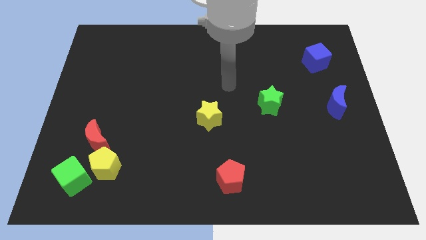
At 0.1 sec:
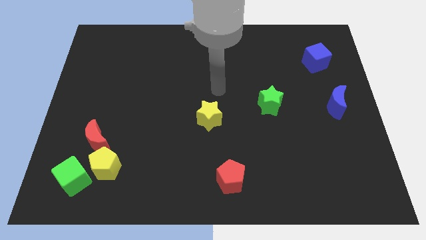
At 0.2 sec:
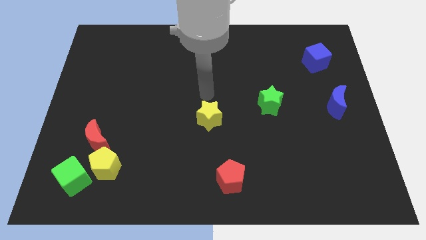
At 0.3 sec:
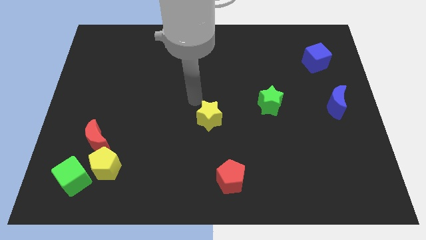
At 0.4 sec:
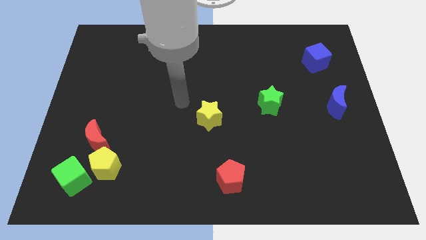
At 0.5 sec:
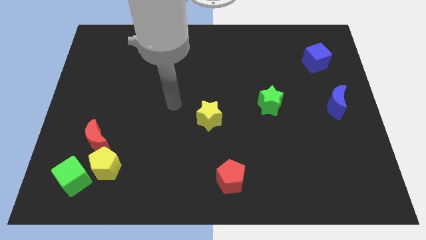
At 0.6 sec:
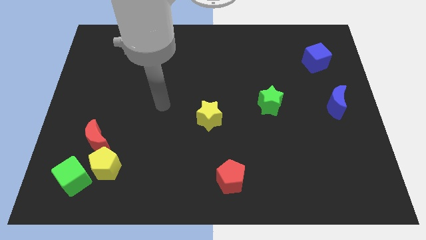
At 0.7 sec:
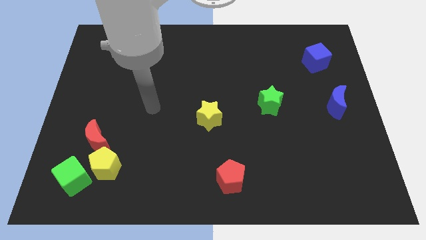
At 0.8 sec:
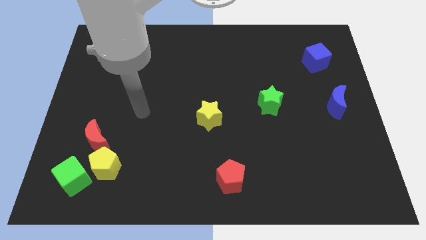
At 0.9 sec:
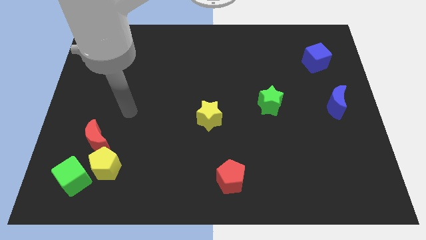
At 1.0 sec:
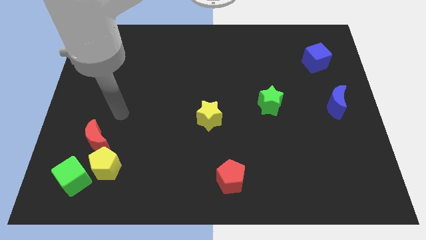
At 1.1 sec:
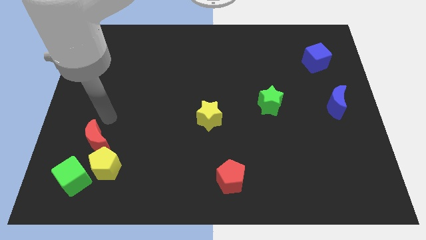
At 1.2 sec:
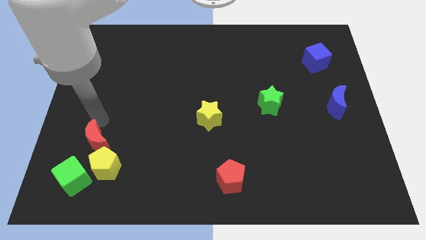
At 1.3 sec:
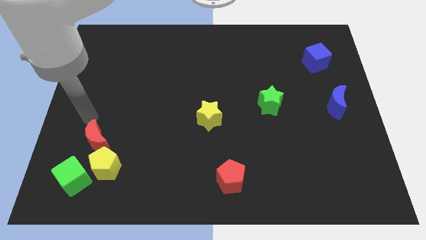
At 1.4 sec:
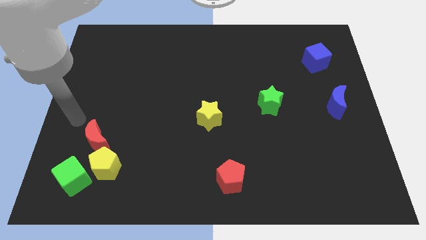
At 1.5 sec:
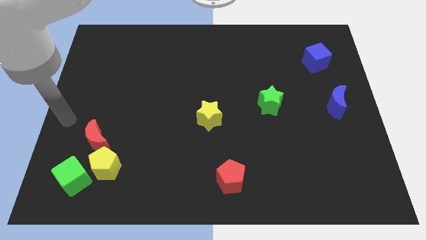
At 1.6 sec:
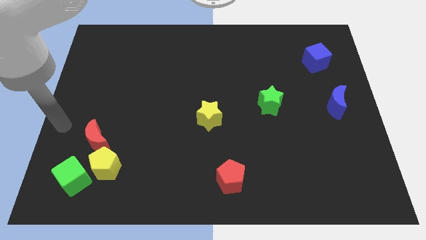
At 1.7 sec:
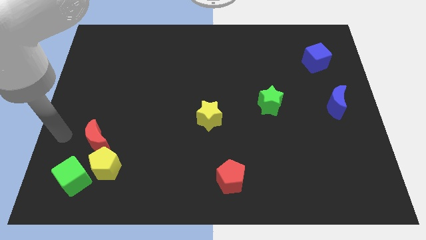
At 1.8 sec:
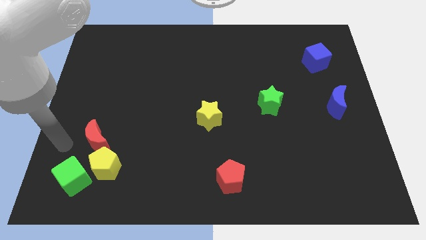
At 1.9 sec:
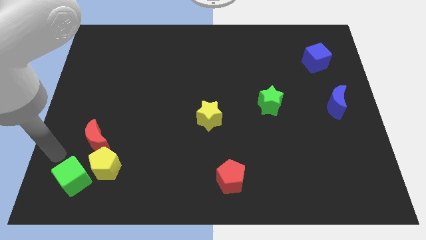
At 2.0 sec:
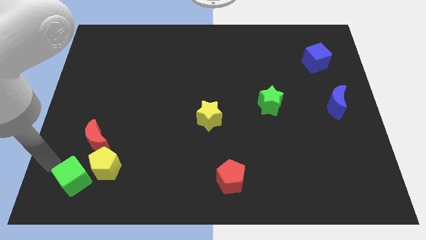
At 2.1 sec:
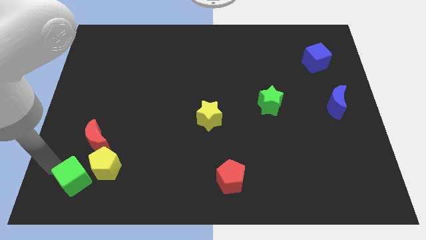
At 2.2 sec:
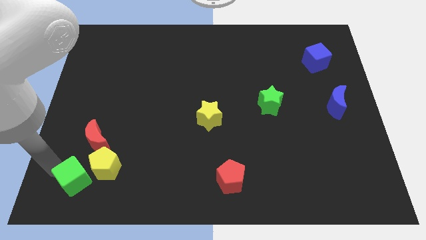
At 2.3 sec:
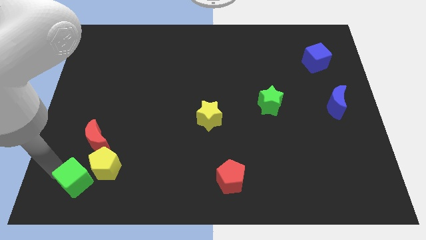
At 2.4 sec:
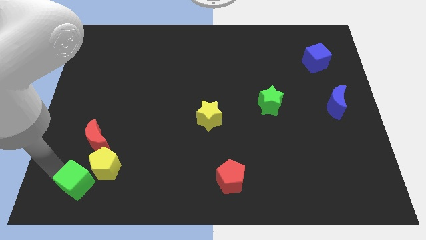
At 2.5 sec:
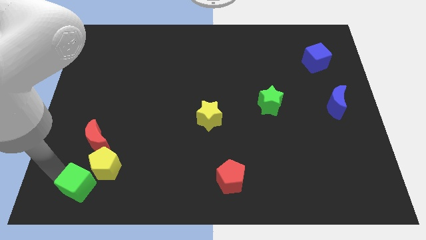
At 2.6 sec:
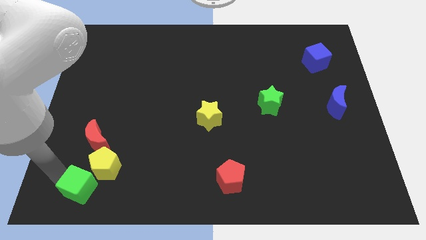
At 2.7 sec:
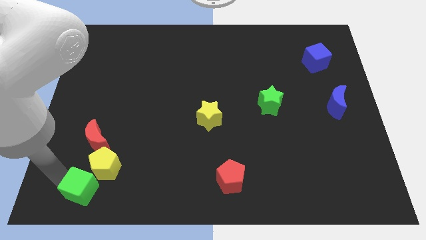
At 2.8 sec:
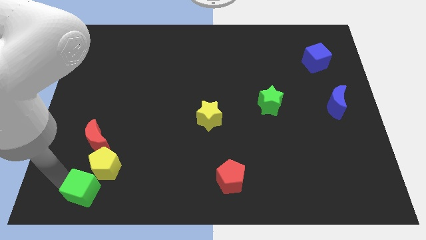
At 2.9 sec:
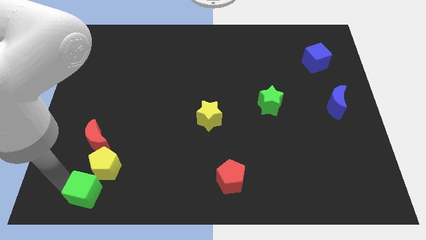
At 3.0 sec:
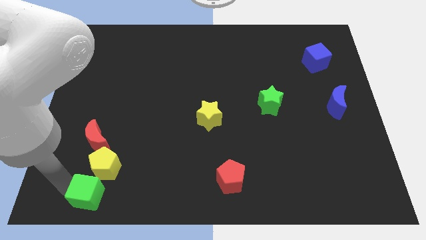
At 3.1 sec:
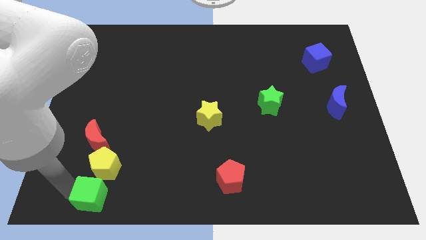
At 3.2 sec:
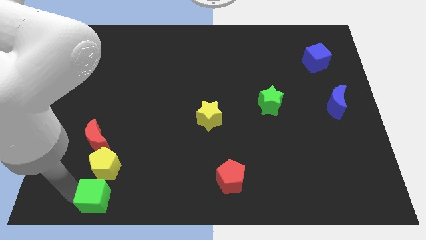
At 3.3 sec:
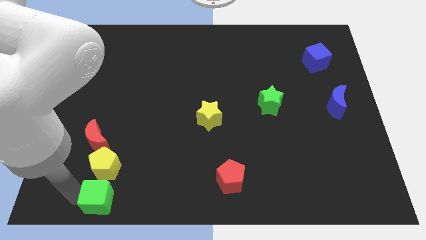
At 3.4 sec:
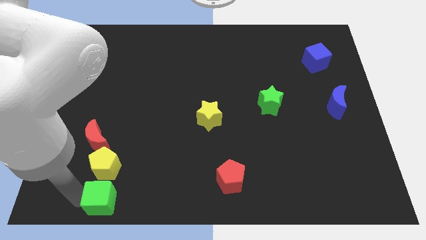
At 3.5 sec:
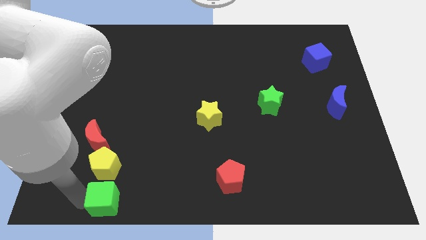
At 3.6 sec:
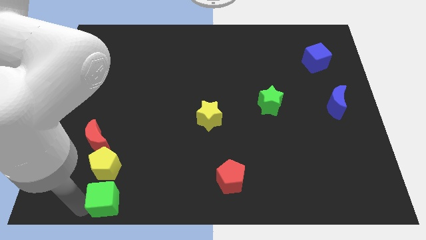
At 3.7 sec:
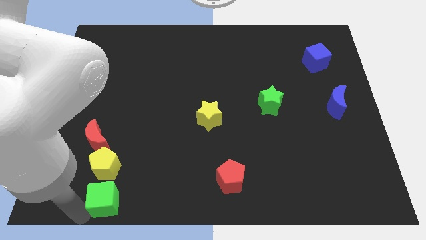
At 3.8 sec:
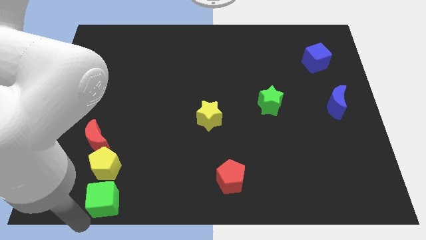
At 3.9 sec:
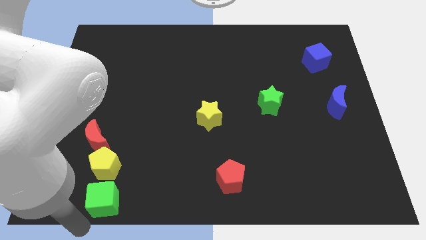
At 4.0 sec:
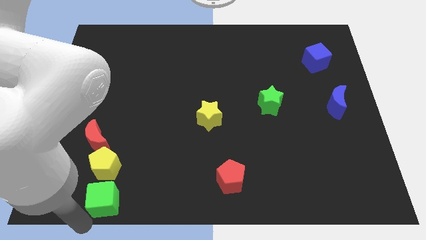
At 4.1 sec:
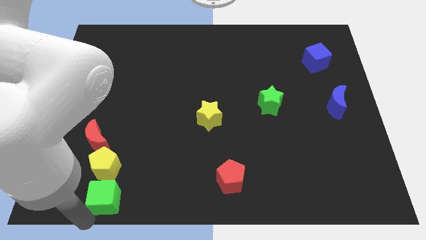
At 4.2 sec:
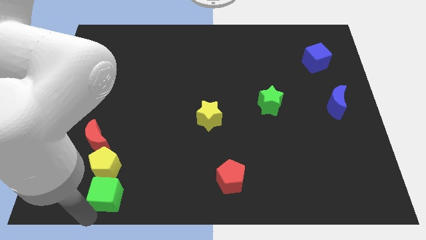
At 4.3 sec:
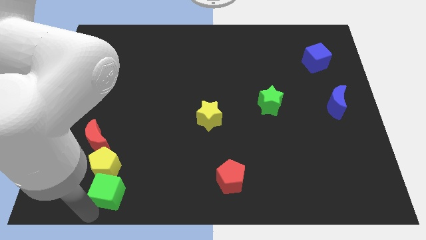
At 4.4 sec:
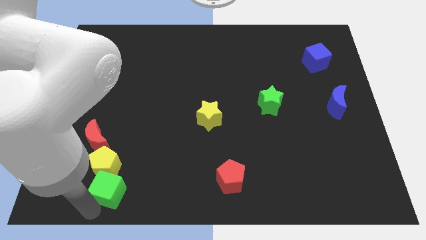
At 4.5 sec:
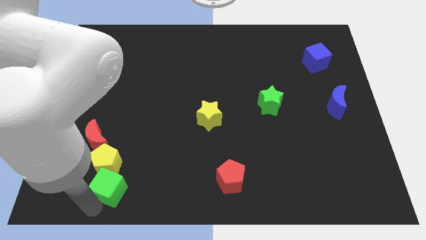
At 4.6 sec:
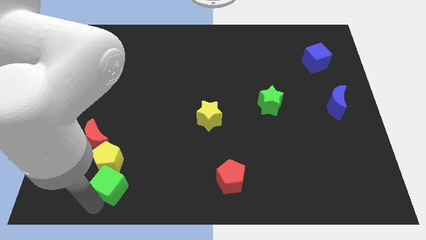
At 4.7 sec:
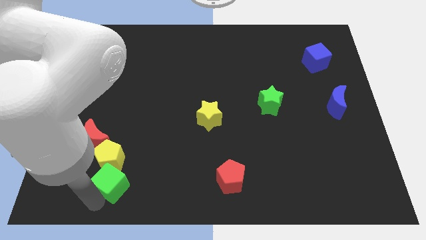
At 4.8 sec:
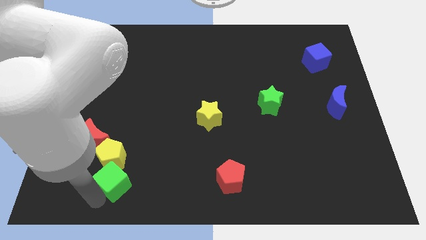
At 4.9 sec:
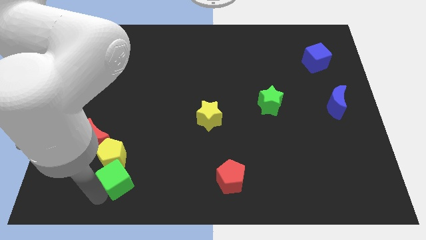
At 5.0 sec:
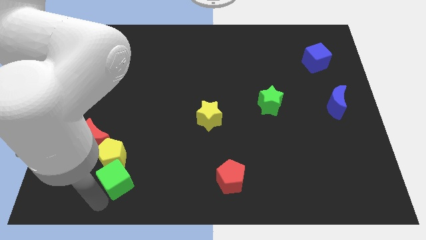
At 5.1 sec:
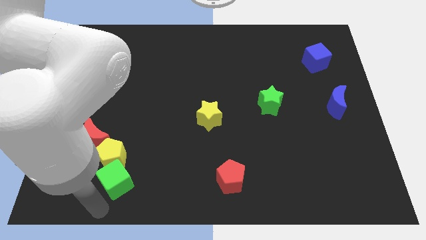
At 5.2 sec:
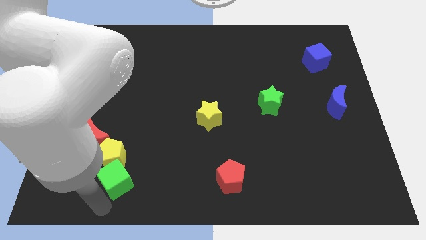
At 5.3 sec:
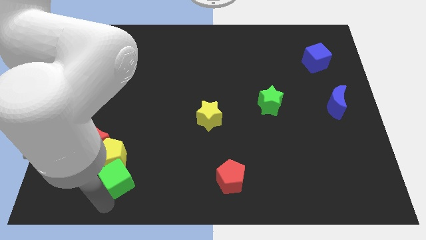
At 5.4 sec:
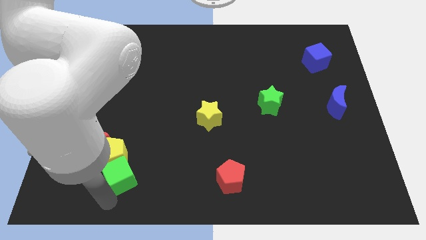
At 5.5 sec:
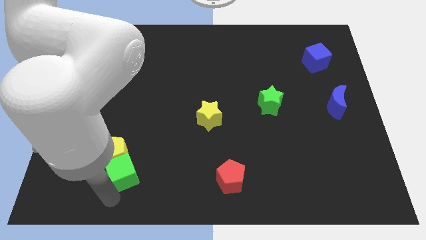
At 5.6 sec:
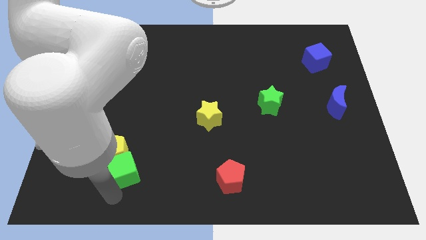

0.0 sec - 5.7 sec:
slightly slide the green cube upwards and then to the right

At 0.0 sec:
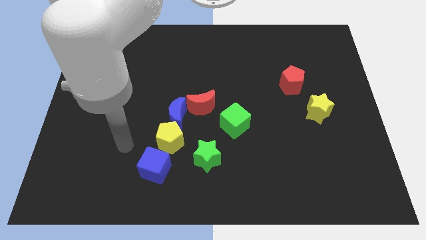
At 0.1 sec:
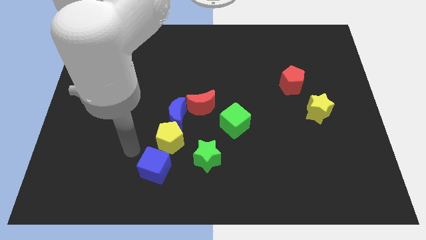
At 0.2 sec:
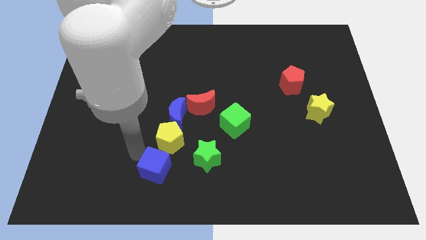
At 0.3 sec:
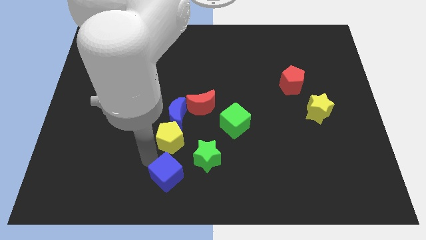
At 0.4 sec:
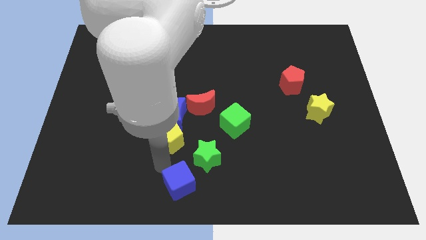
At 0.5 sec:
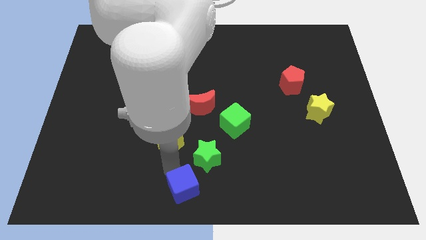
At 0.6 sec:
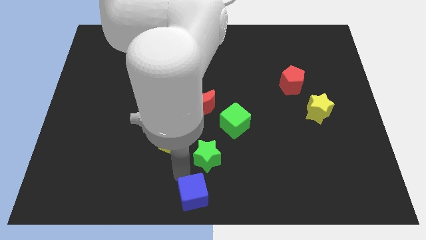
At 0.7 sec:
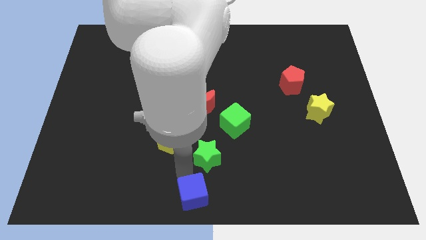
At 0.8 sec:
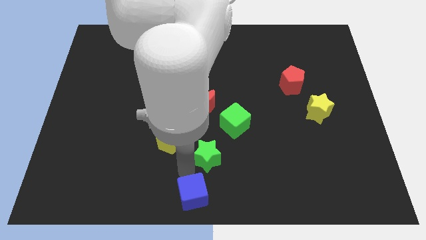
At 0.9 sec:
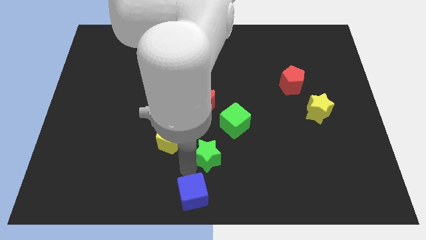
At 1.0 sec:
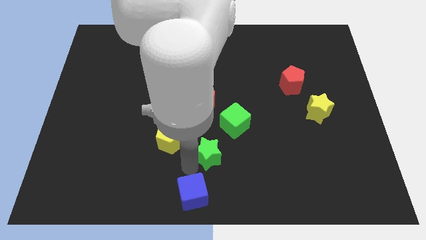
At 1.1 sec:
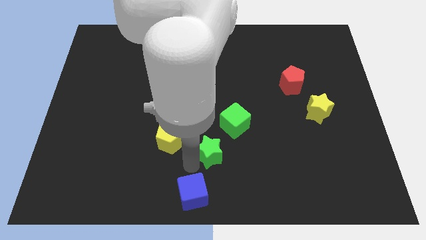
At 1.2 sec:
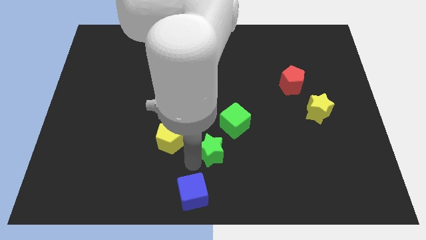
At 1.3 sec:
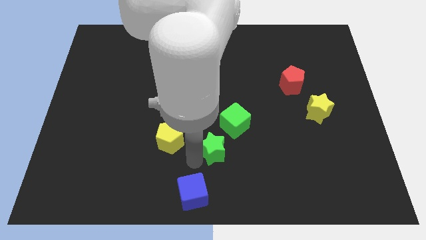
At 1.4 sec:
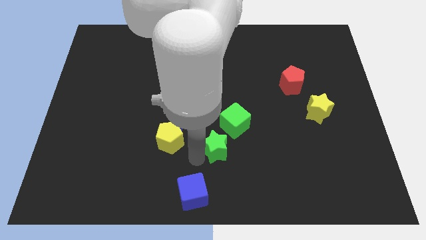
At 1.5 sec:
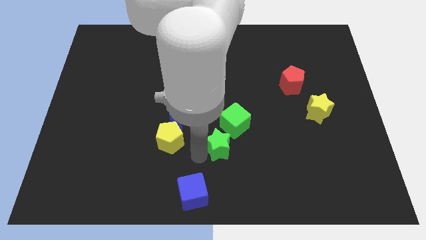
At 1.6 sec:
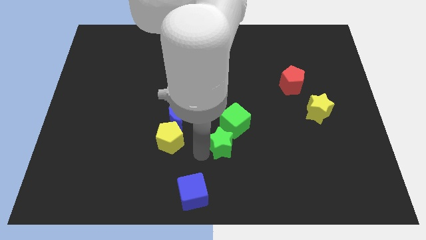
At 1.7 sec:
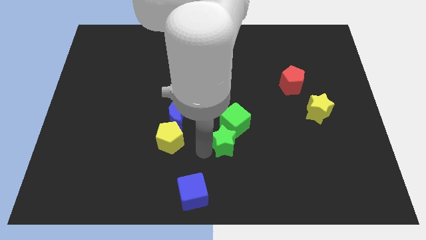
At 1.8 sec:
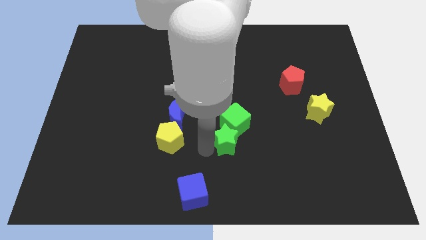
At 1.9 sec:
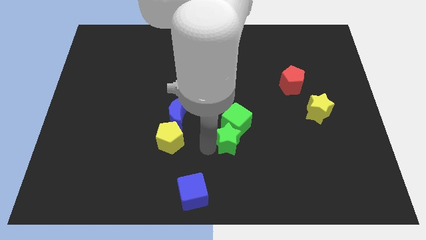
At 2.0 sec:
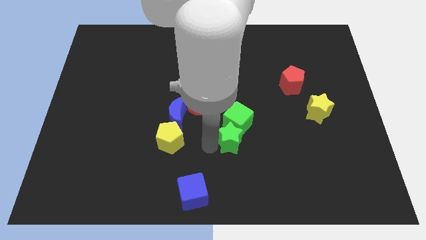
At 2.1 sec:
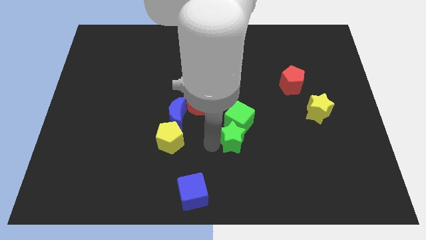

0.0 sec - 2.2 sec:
slide the green star upwards and to the right a bit
